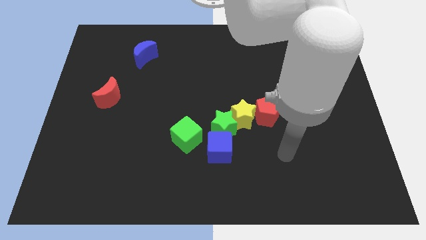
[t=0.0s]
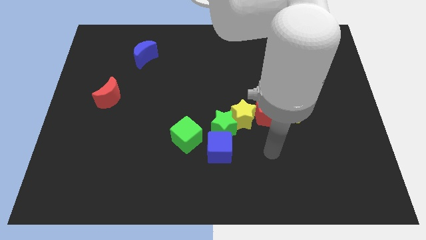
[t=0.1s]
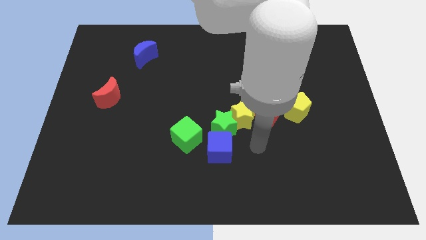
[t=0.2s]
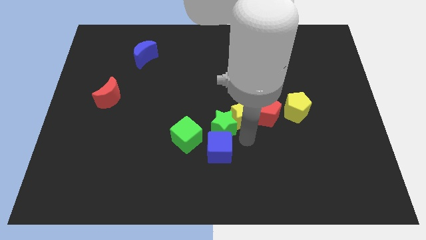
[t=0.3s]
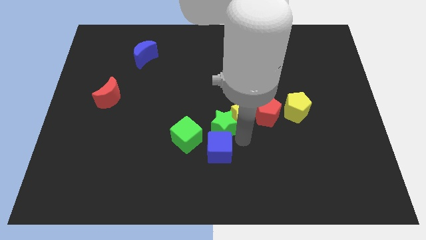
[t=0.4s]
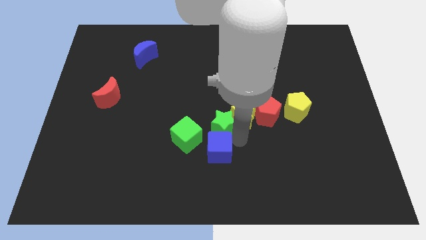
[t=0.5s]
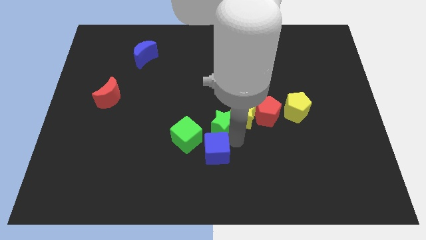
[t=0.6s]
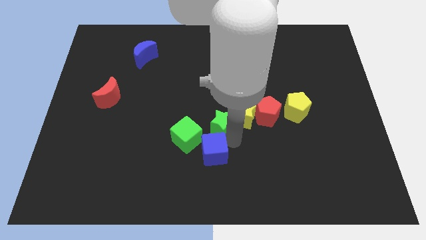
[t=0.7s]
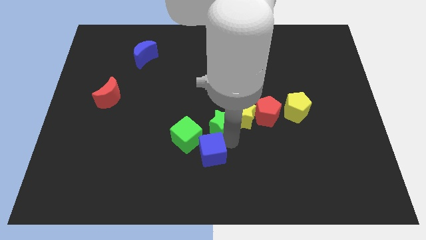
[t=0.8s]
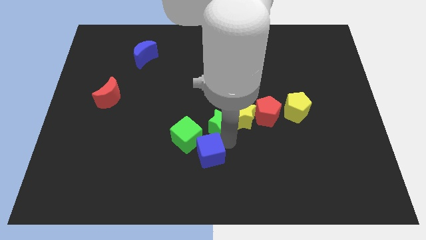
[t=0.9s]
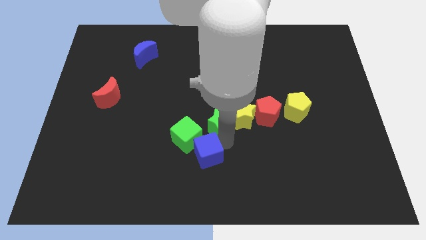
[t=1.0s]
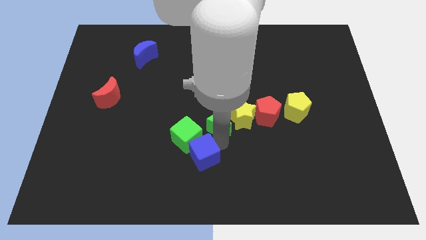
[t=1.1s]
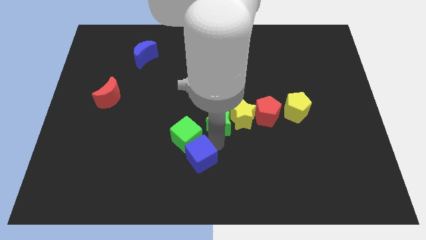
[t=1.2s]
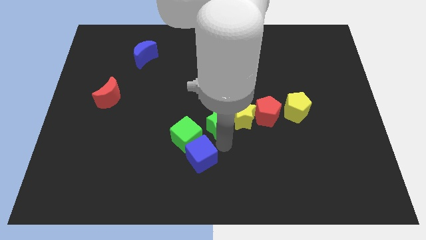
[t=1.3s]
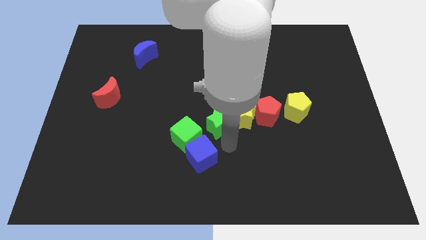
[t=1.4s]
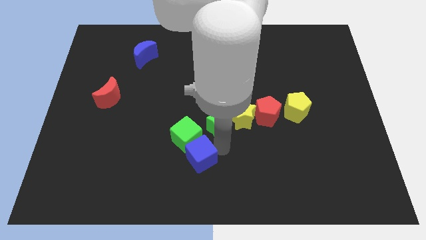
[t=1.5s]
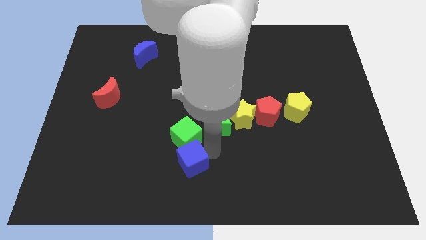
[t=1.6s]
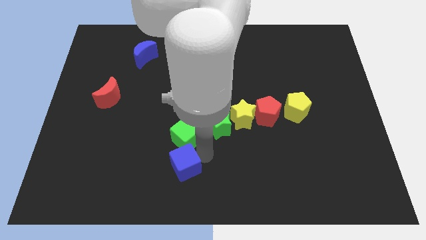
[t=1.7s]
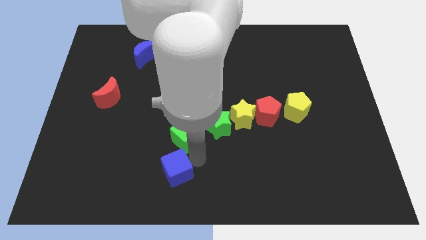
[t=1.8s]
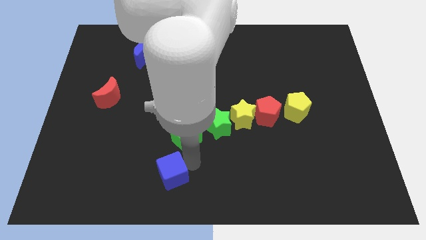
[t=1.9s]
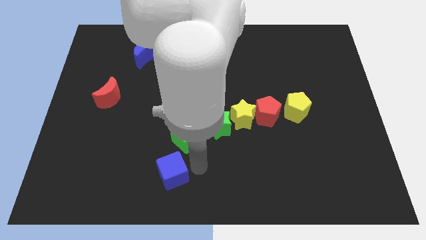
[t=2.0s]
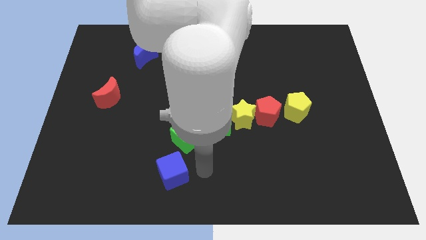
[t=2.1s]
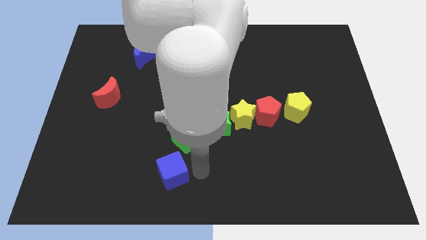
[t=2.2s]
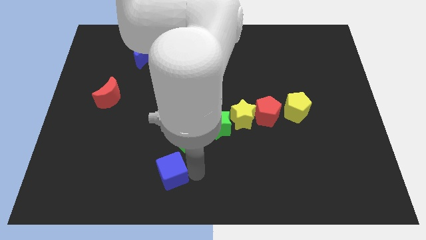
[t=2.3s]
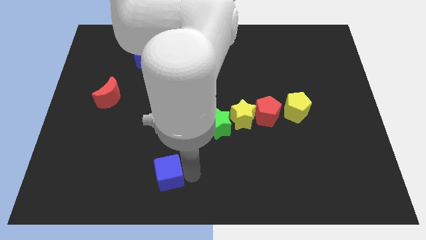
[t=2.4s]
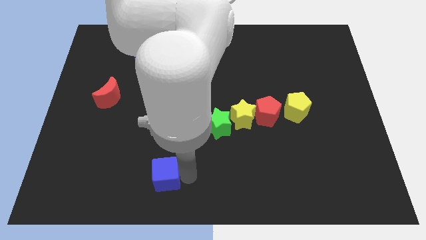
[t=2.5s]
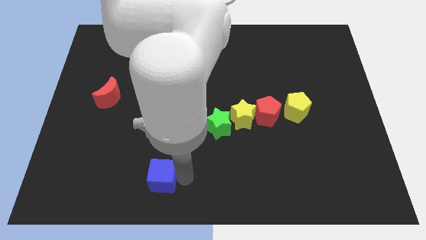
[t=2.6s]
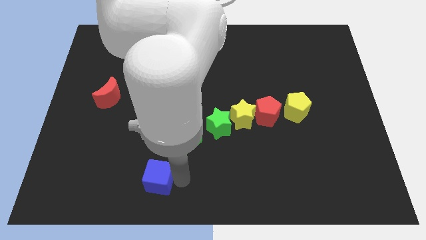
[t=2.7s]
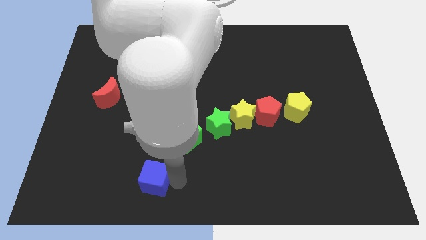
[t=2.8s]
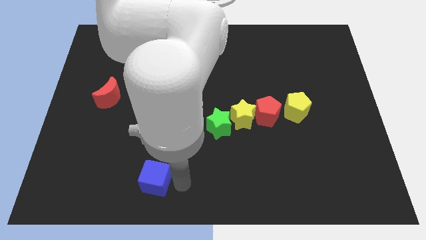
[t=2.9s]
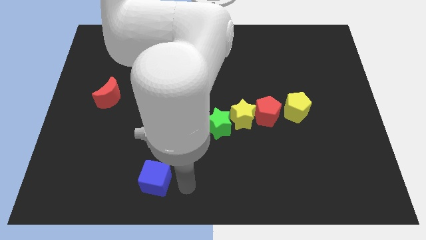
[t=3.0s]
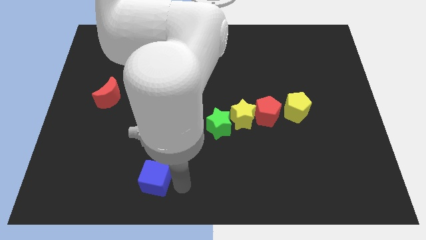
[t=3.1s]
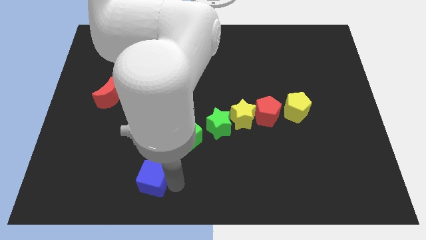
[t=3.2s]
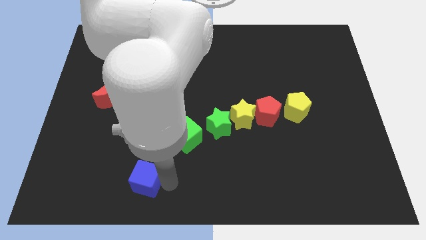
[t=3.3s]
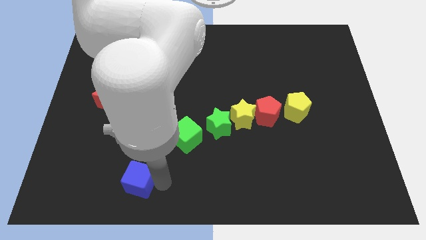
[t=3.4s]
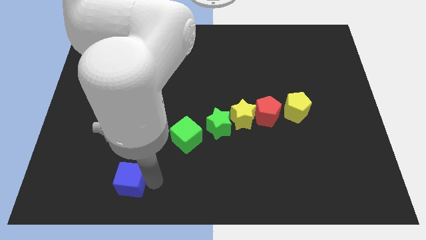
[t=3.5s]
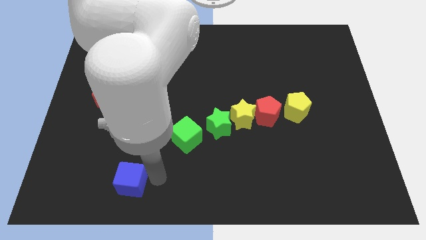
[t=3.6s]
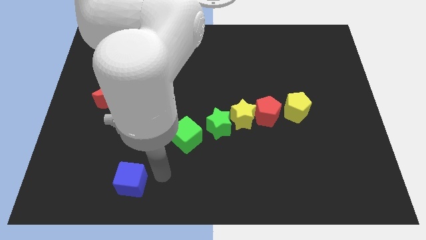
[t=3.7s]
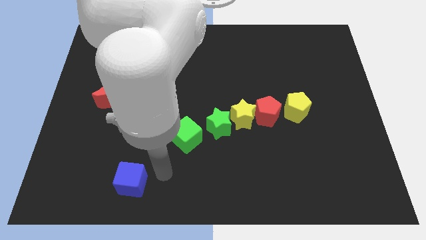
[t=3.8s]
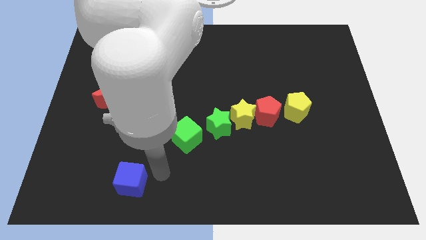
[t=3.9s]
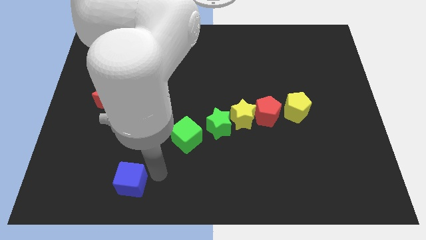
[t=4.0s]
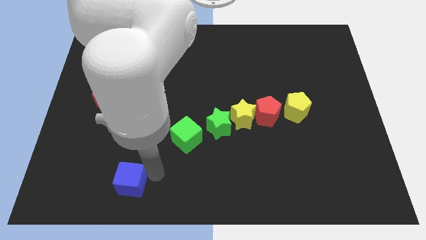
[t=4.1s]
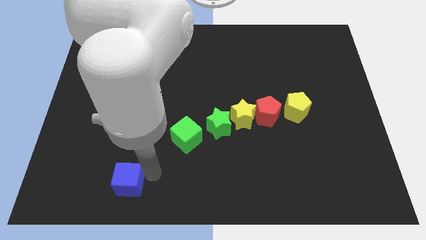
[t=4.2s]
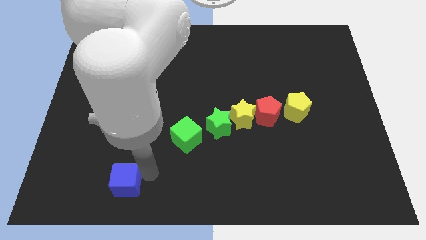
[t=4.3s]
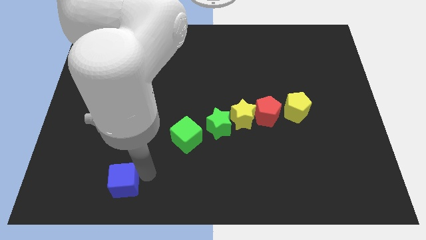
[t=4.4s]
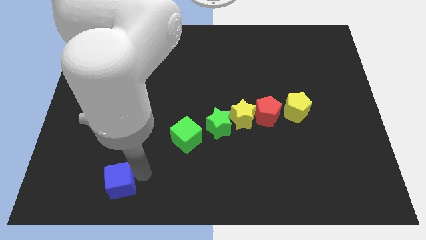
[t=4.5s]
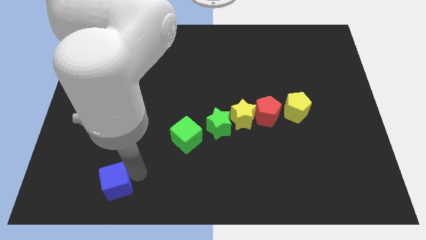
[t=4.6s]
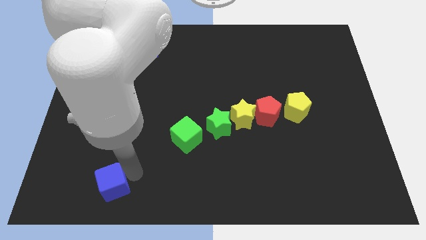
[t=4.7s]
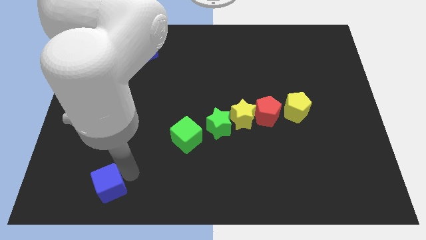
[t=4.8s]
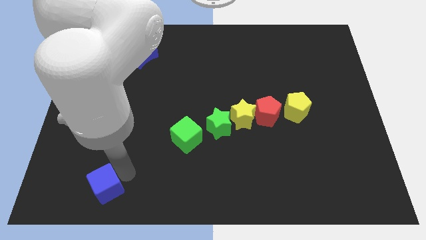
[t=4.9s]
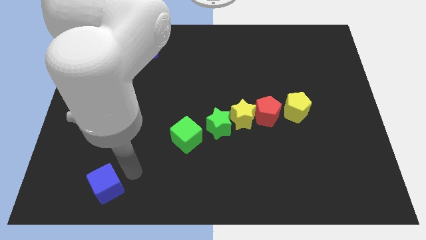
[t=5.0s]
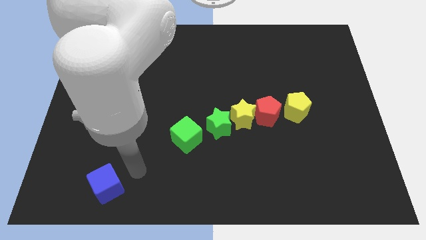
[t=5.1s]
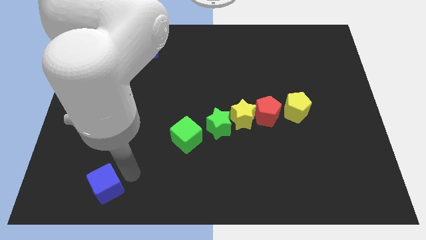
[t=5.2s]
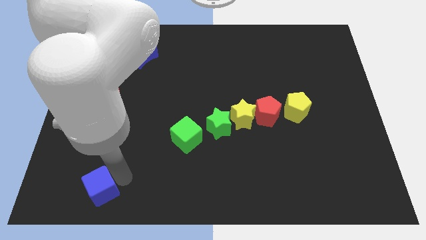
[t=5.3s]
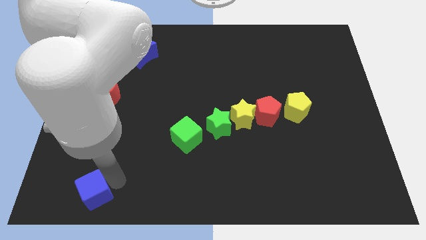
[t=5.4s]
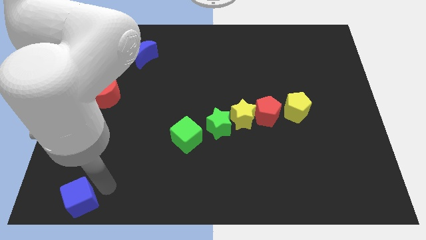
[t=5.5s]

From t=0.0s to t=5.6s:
move the blue cube to the bottom left
